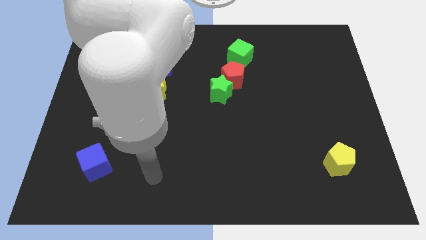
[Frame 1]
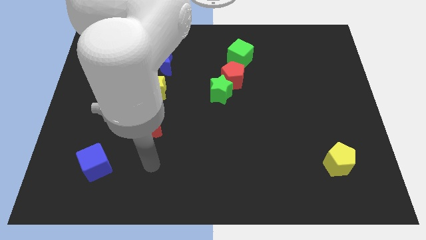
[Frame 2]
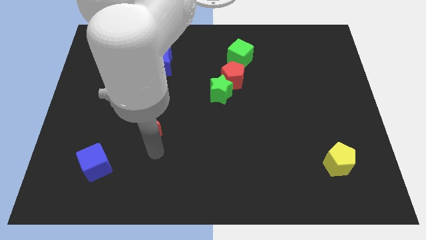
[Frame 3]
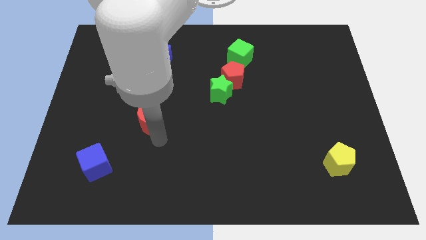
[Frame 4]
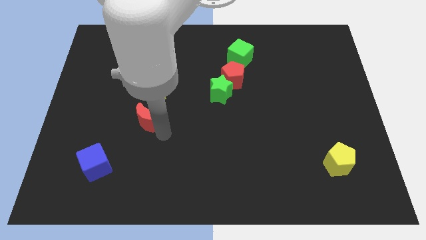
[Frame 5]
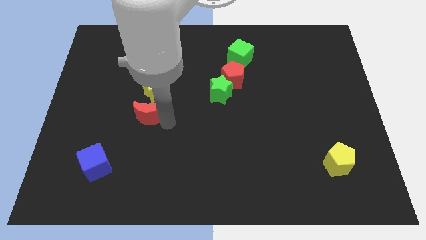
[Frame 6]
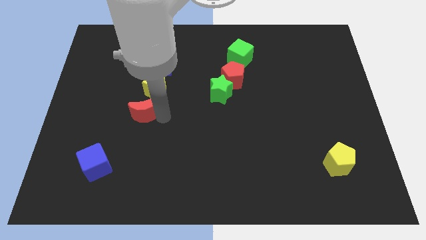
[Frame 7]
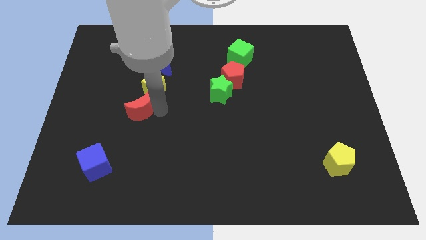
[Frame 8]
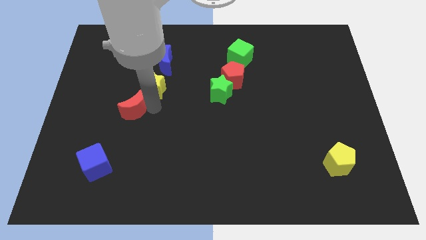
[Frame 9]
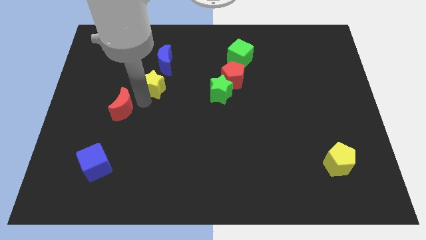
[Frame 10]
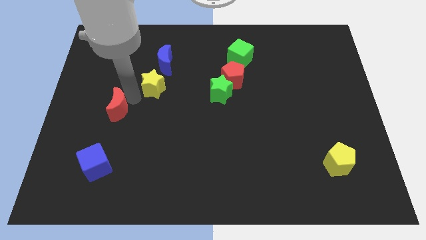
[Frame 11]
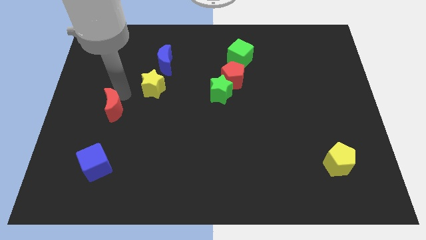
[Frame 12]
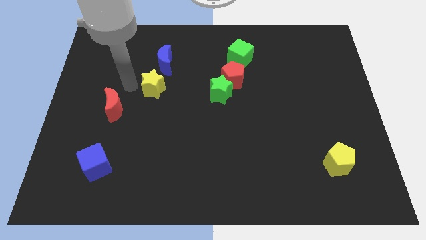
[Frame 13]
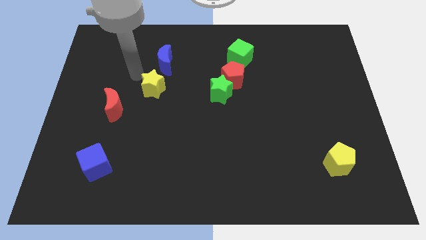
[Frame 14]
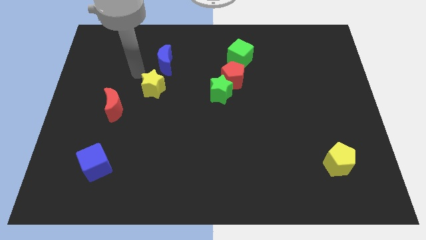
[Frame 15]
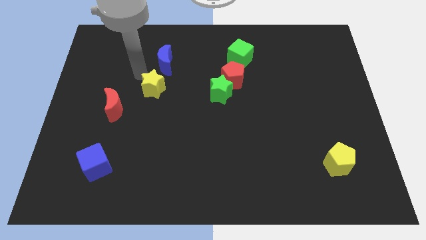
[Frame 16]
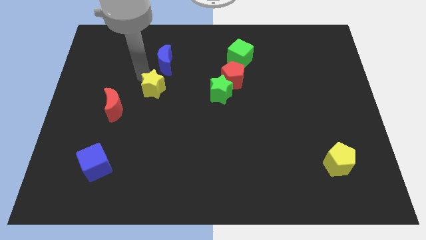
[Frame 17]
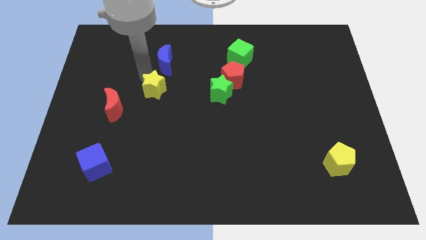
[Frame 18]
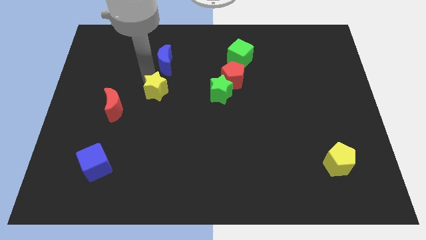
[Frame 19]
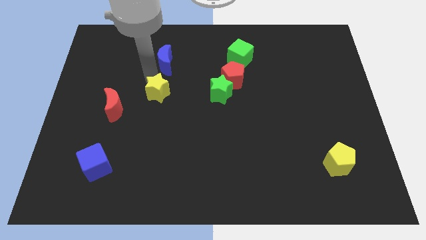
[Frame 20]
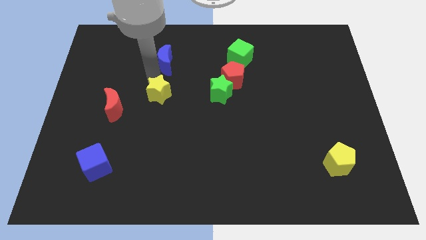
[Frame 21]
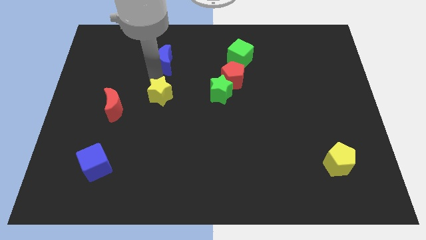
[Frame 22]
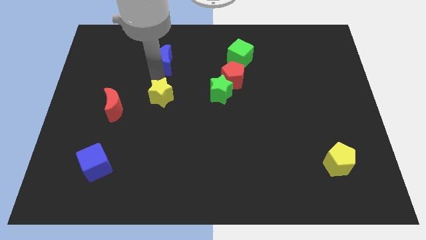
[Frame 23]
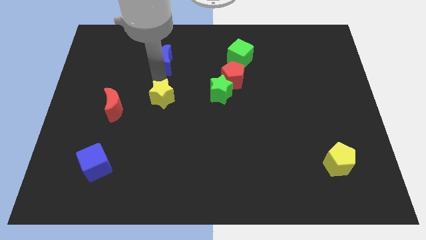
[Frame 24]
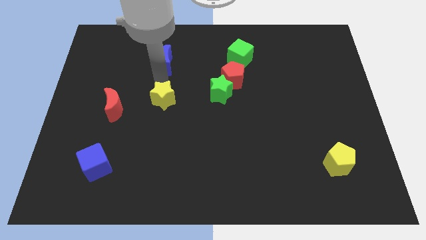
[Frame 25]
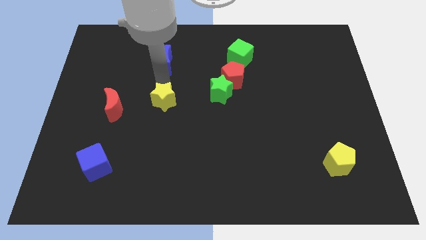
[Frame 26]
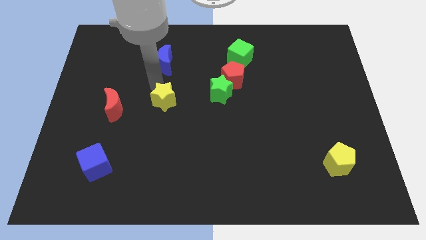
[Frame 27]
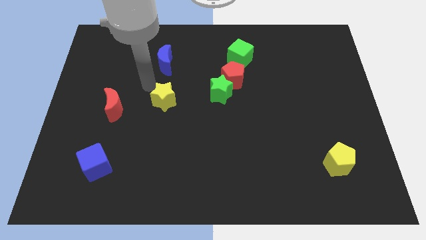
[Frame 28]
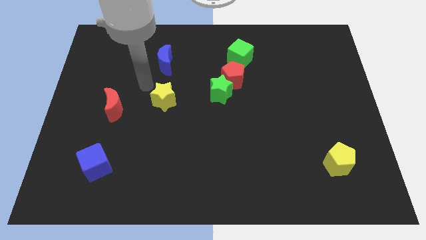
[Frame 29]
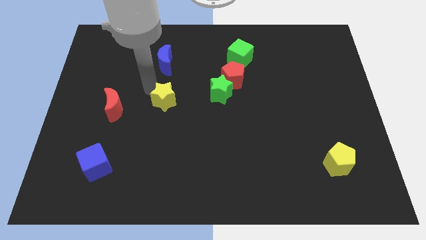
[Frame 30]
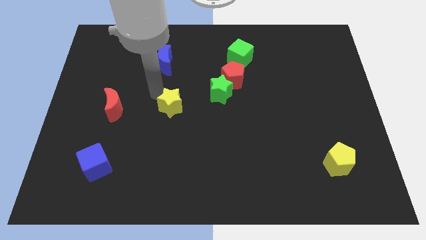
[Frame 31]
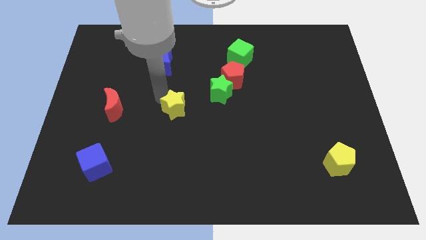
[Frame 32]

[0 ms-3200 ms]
push the yellow star a little downwards and to the right

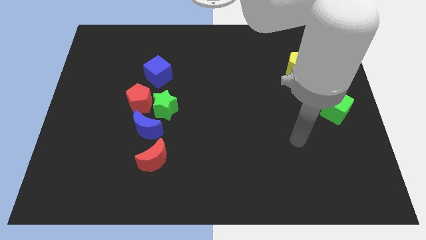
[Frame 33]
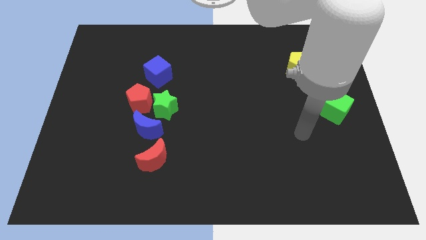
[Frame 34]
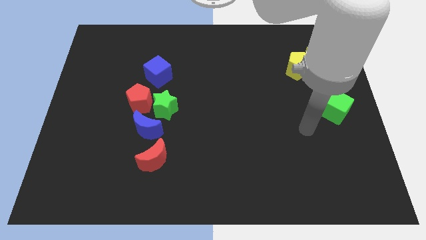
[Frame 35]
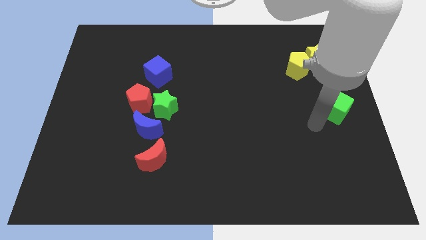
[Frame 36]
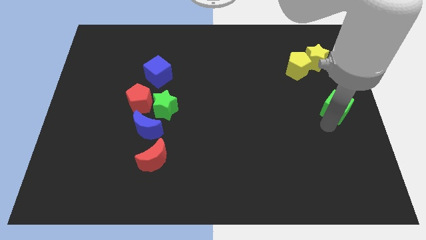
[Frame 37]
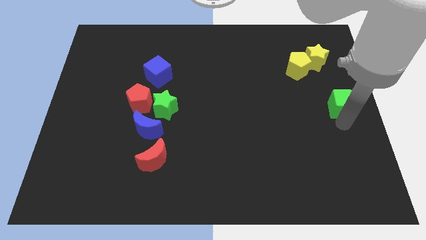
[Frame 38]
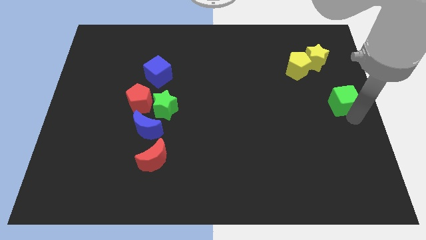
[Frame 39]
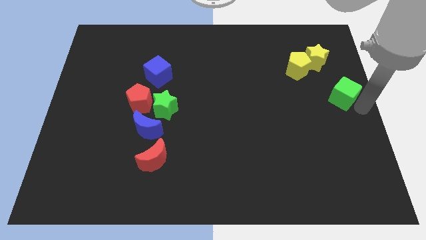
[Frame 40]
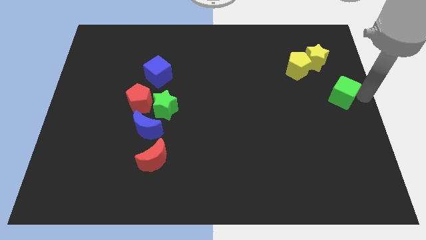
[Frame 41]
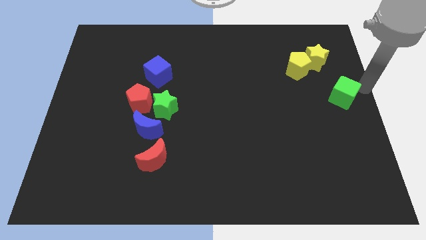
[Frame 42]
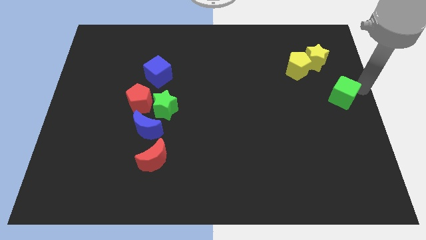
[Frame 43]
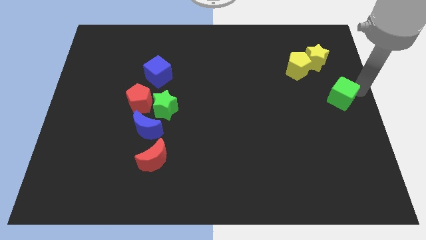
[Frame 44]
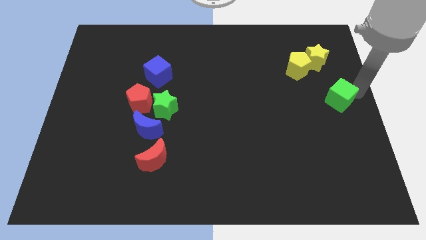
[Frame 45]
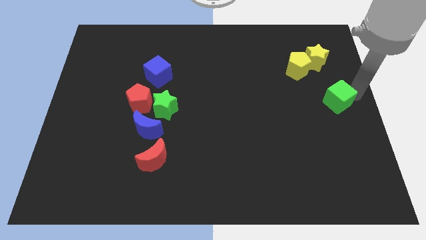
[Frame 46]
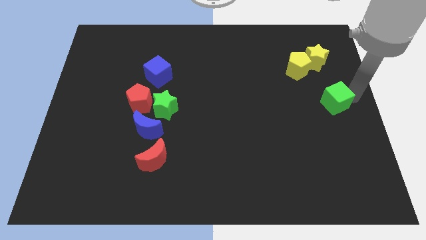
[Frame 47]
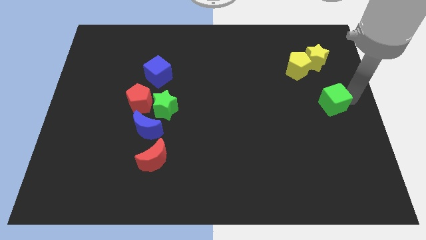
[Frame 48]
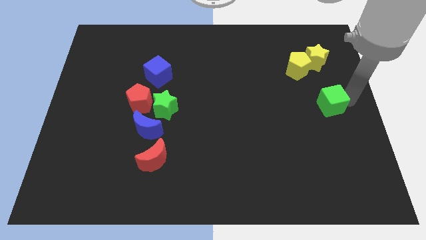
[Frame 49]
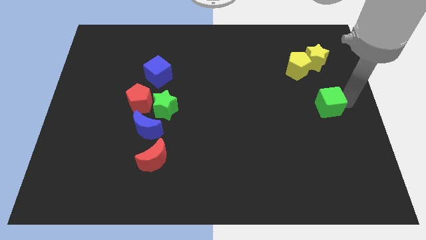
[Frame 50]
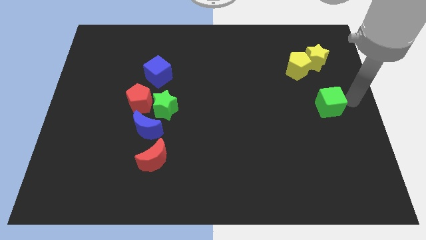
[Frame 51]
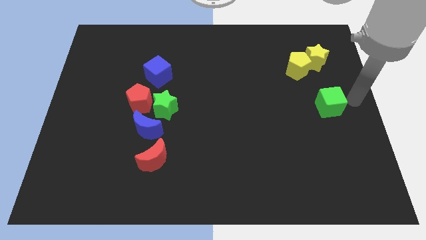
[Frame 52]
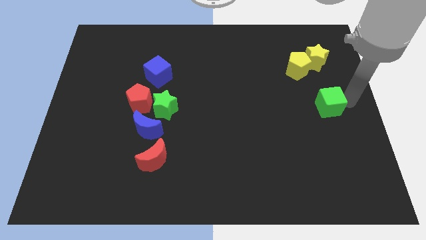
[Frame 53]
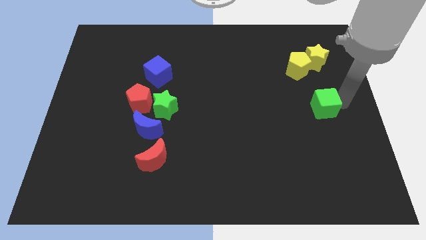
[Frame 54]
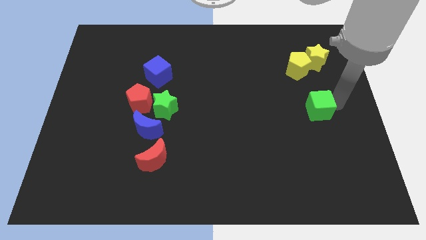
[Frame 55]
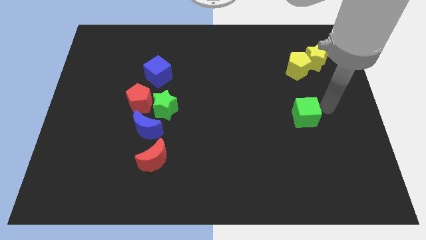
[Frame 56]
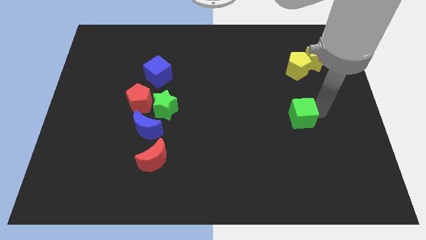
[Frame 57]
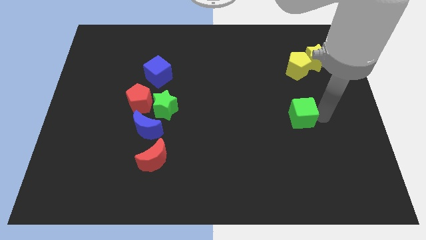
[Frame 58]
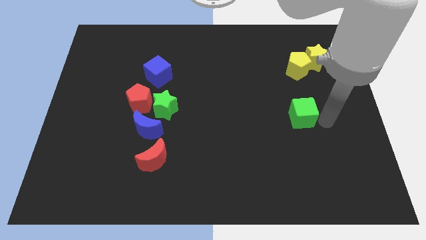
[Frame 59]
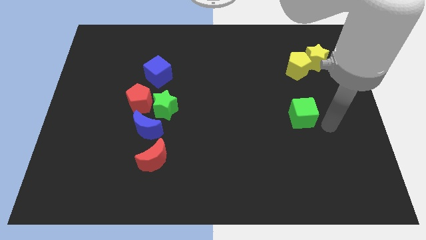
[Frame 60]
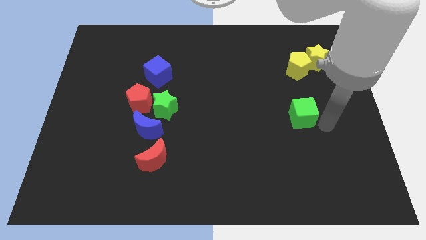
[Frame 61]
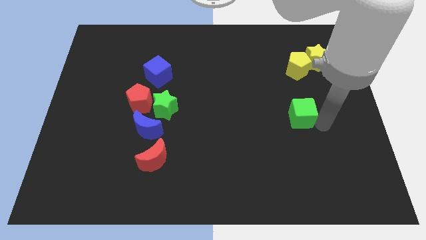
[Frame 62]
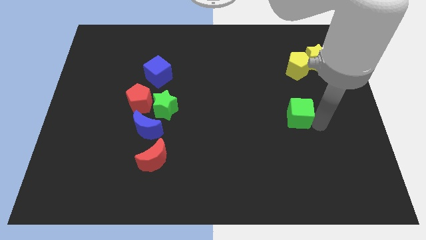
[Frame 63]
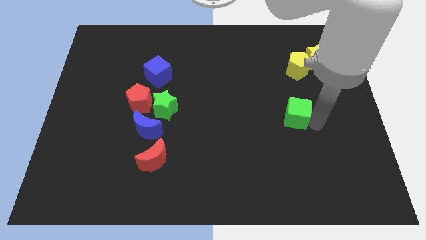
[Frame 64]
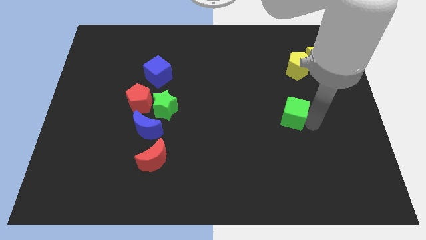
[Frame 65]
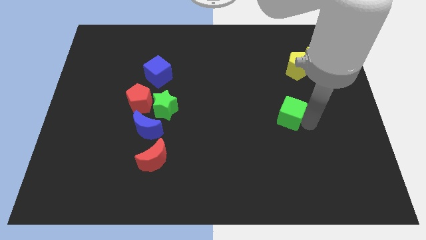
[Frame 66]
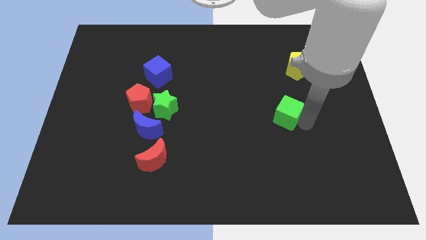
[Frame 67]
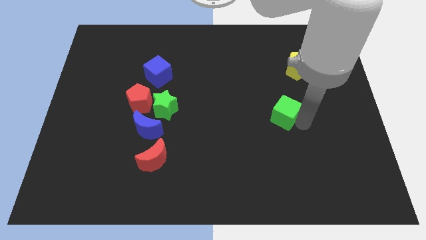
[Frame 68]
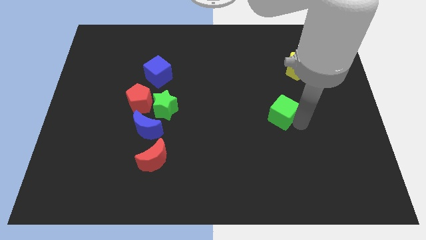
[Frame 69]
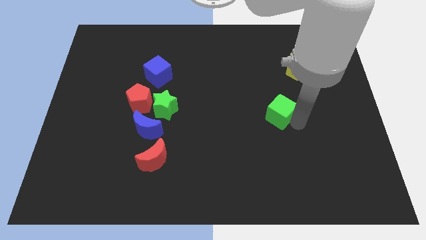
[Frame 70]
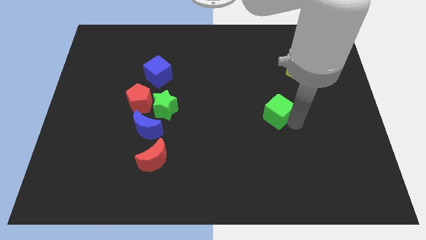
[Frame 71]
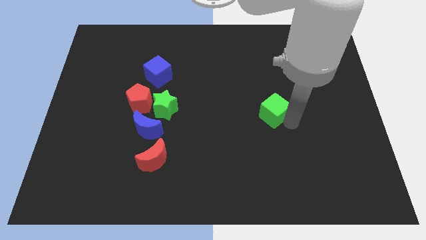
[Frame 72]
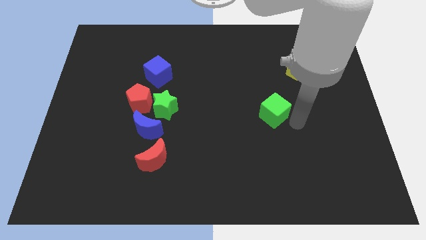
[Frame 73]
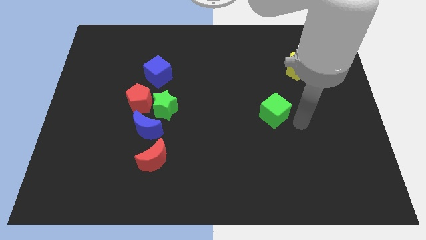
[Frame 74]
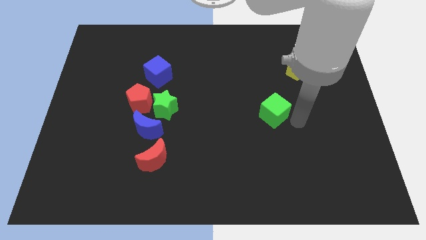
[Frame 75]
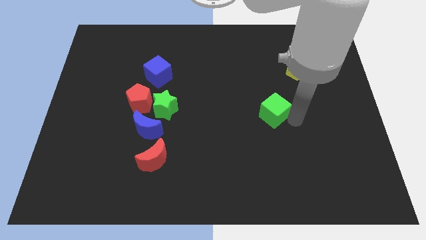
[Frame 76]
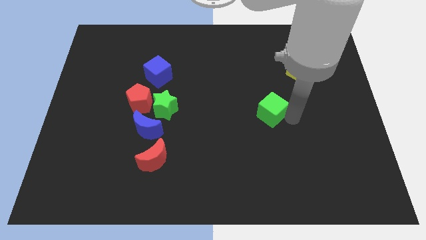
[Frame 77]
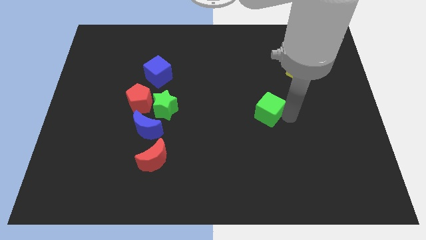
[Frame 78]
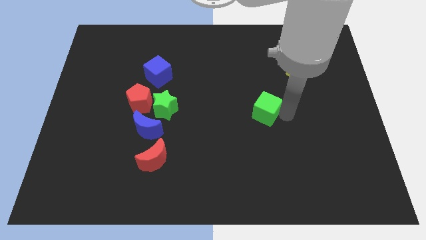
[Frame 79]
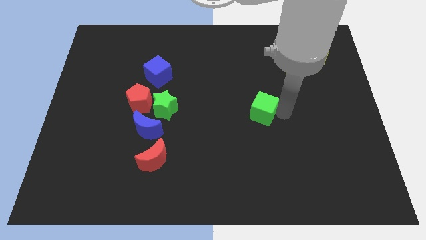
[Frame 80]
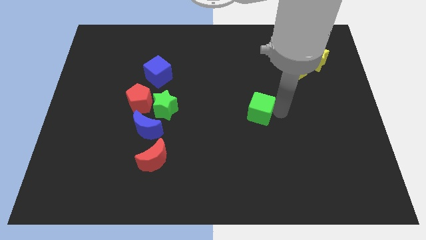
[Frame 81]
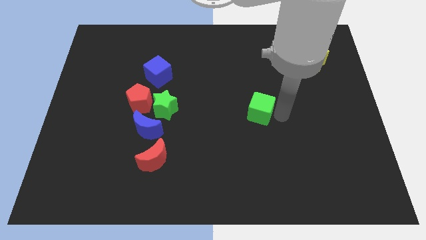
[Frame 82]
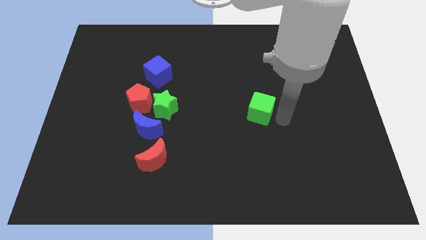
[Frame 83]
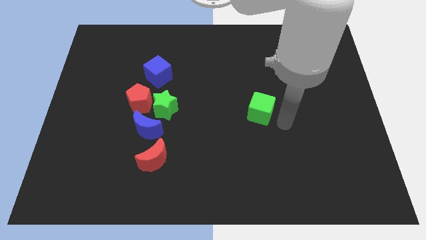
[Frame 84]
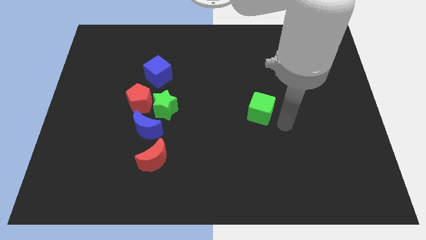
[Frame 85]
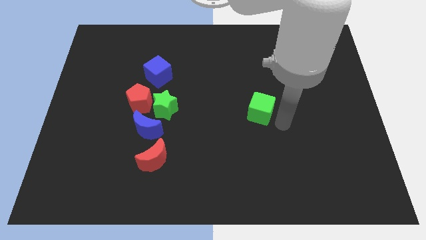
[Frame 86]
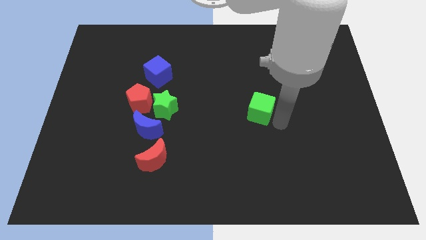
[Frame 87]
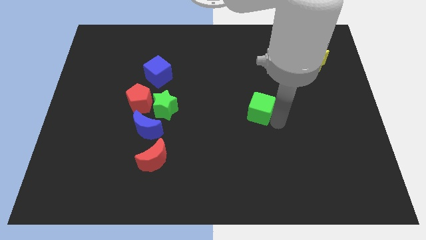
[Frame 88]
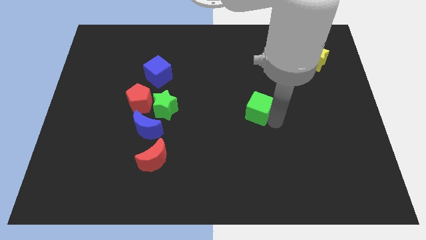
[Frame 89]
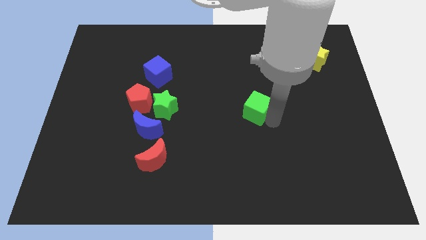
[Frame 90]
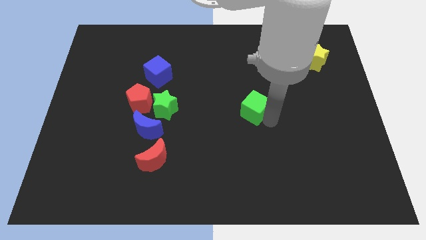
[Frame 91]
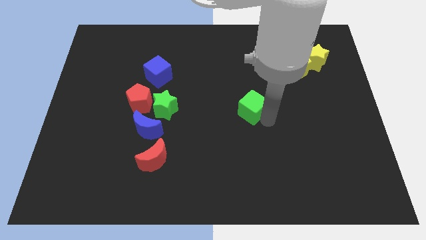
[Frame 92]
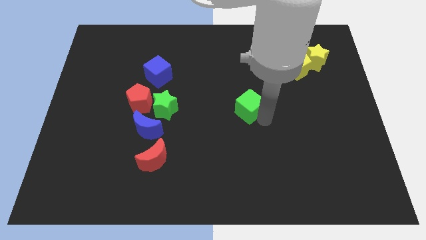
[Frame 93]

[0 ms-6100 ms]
slide the green cube left
